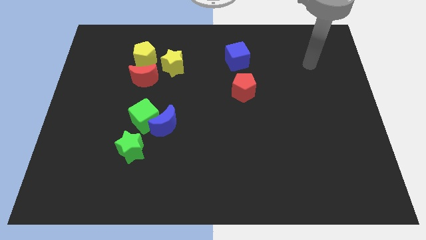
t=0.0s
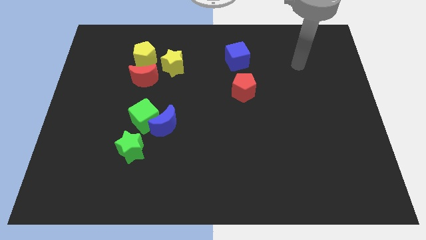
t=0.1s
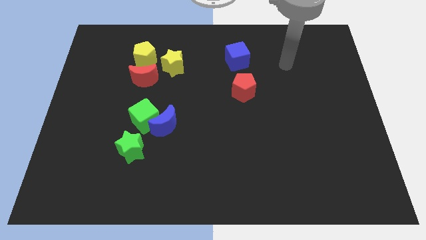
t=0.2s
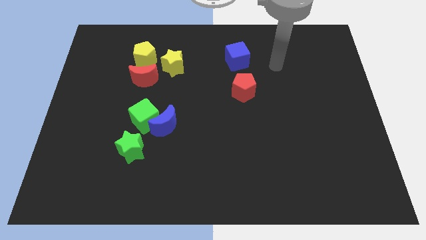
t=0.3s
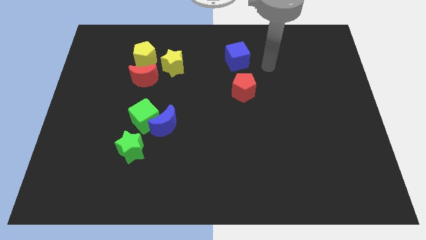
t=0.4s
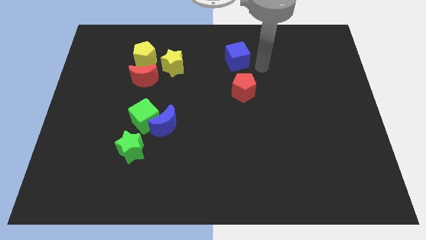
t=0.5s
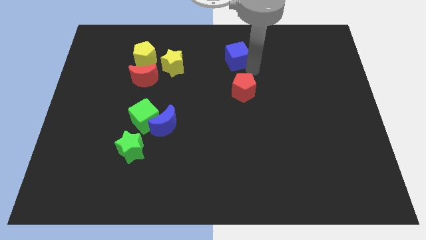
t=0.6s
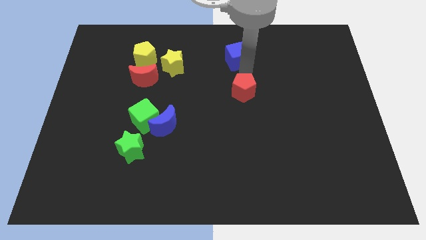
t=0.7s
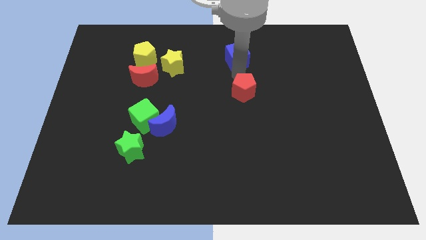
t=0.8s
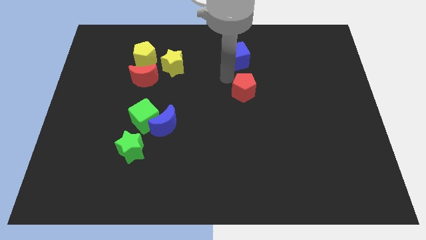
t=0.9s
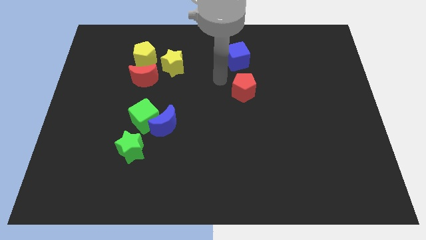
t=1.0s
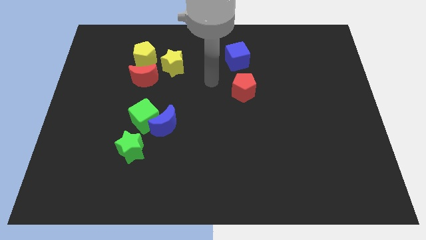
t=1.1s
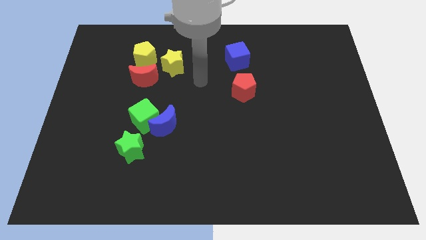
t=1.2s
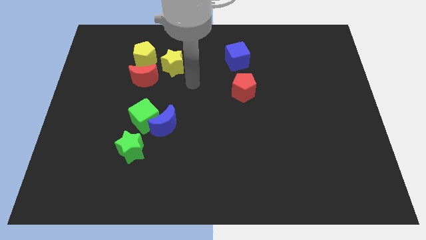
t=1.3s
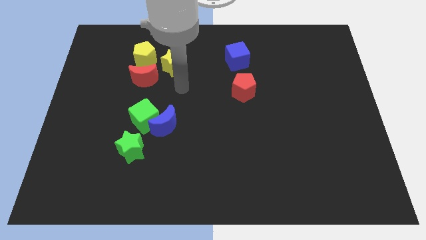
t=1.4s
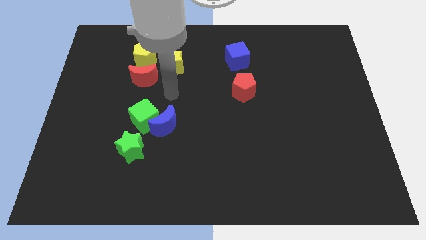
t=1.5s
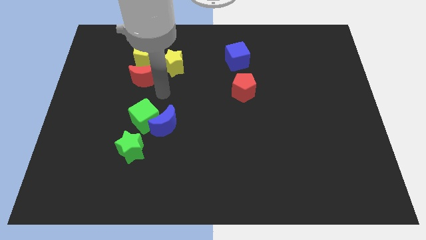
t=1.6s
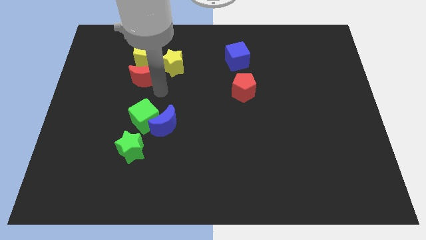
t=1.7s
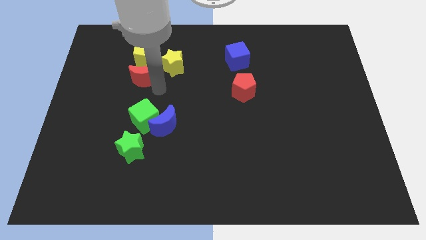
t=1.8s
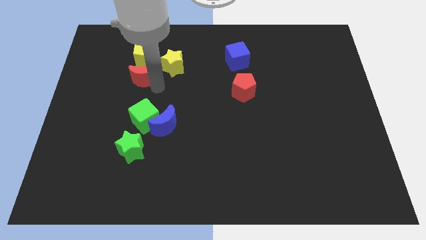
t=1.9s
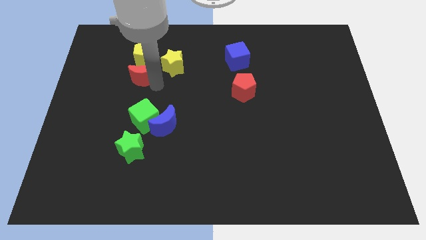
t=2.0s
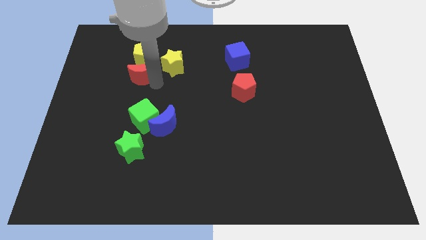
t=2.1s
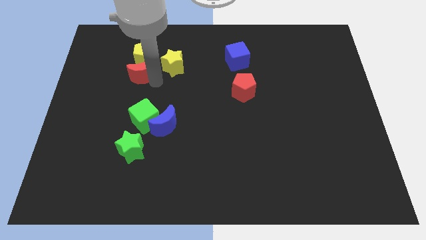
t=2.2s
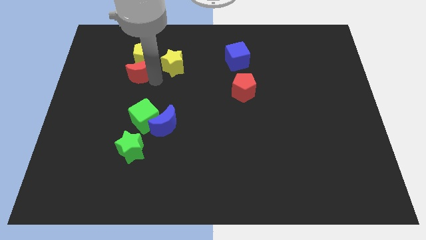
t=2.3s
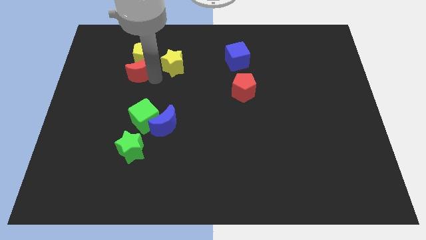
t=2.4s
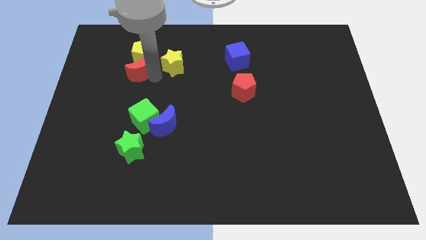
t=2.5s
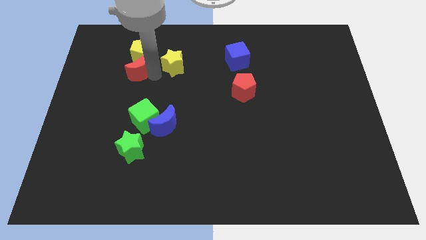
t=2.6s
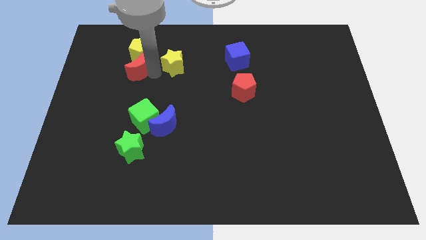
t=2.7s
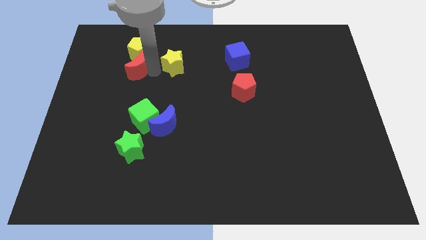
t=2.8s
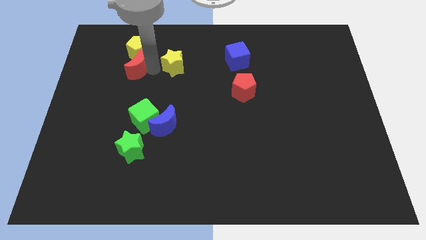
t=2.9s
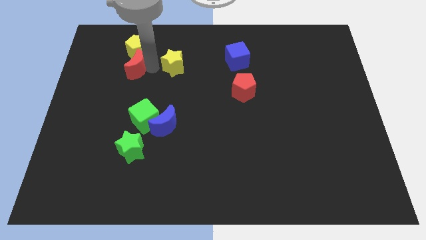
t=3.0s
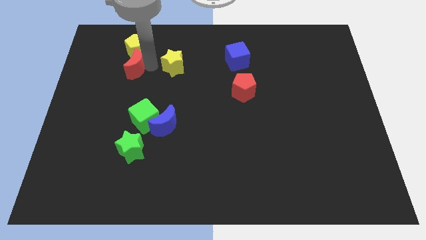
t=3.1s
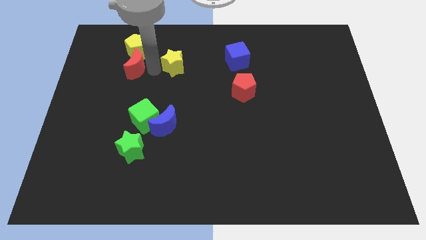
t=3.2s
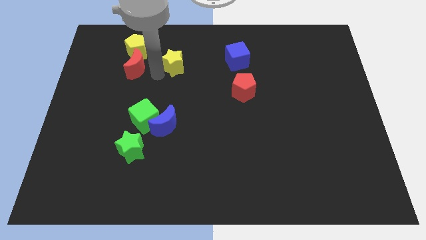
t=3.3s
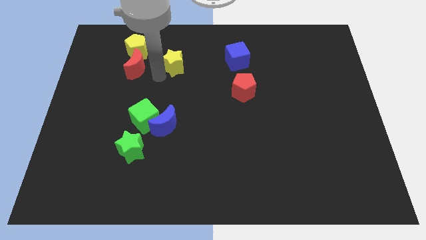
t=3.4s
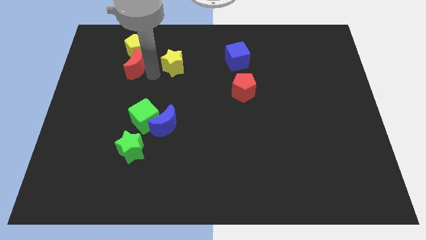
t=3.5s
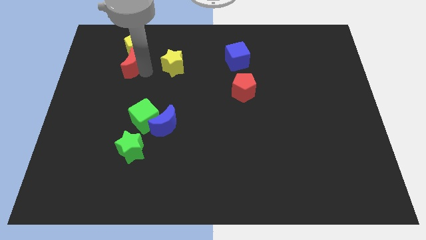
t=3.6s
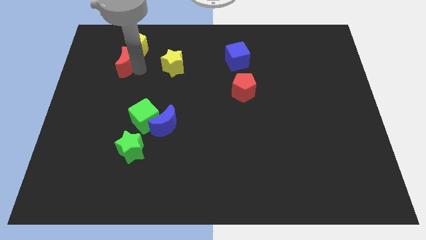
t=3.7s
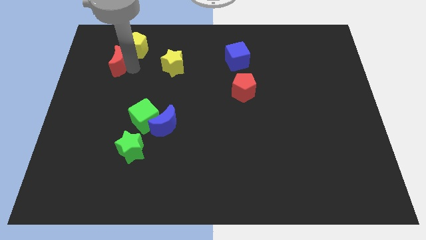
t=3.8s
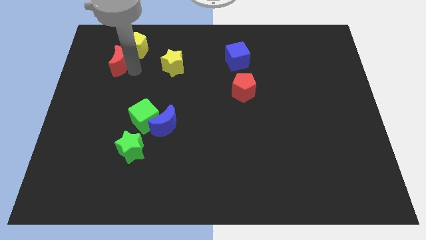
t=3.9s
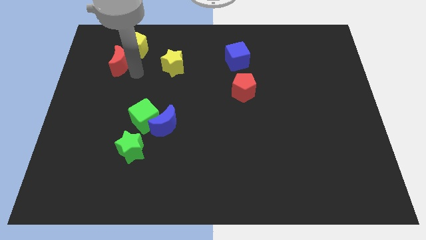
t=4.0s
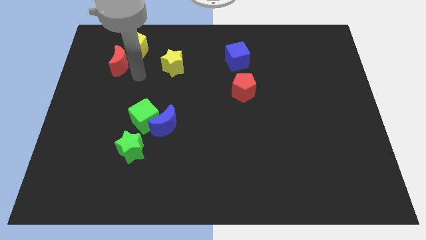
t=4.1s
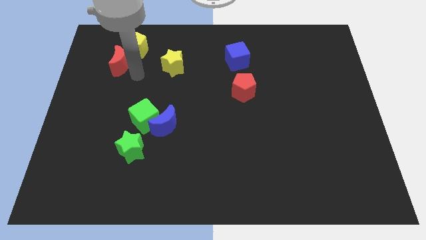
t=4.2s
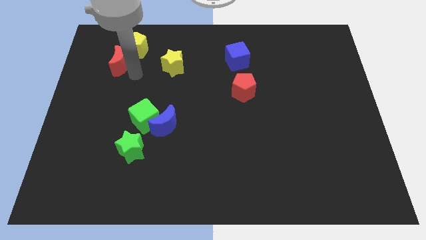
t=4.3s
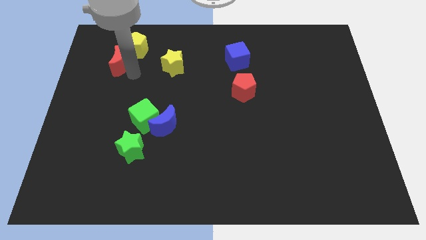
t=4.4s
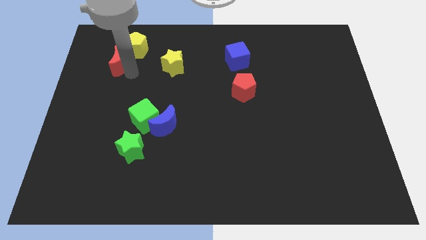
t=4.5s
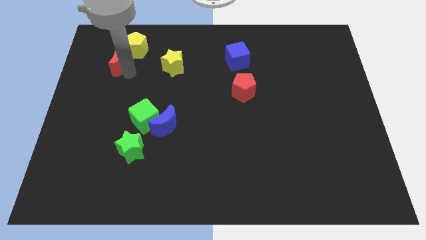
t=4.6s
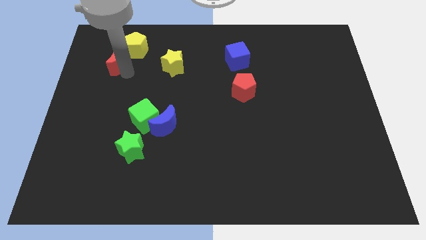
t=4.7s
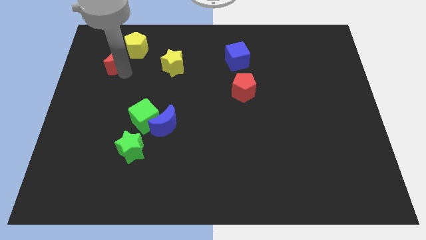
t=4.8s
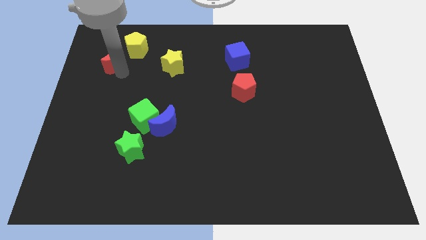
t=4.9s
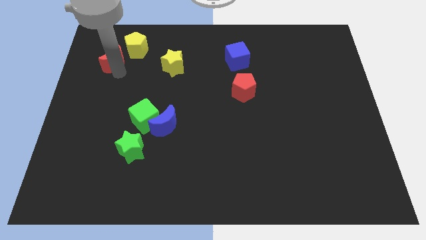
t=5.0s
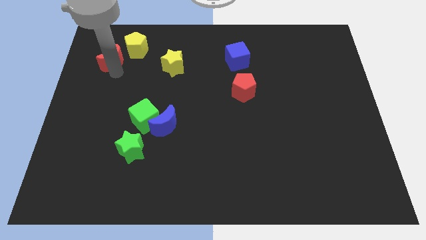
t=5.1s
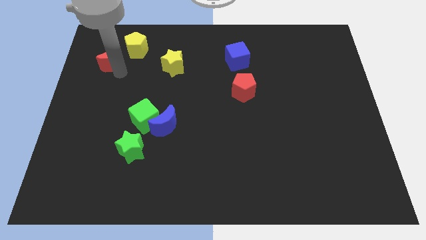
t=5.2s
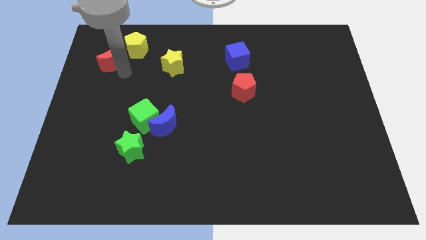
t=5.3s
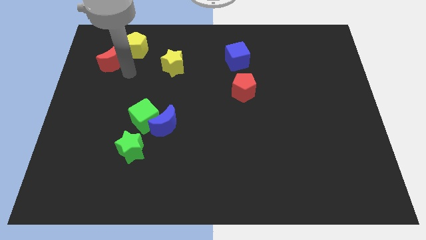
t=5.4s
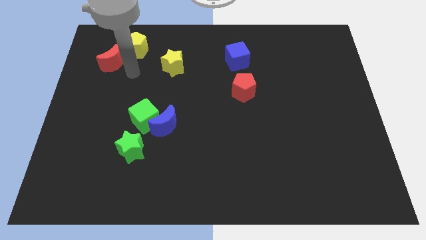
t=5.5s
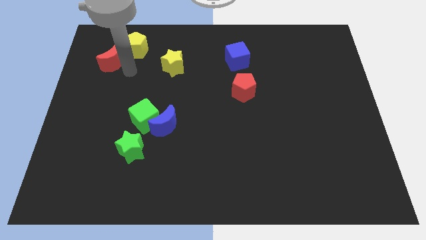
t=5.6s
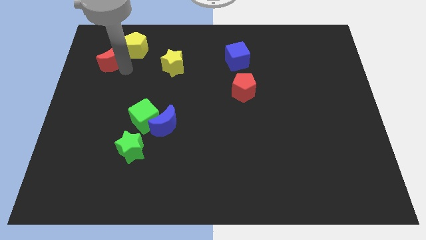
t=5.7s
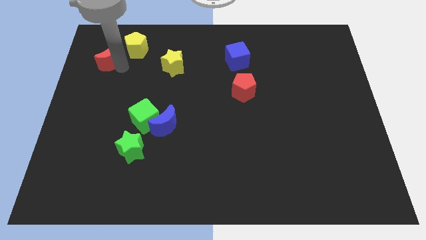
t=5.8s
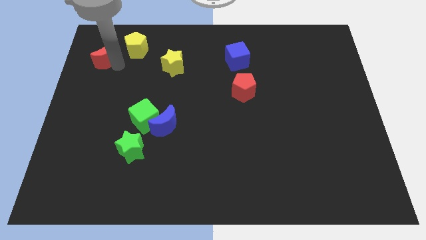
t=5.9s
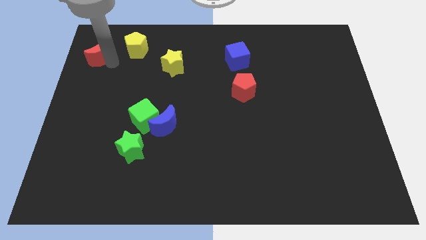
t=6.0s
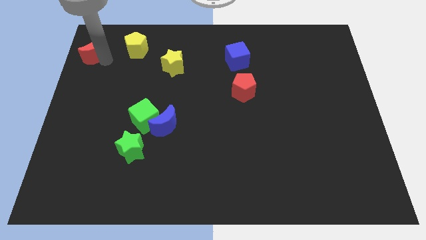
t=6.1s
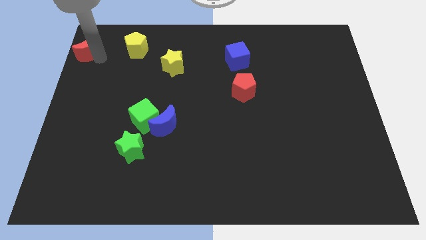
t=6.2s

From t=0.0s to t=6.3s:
put the red moon to the upper left corner

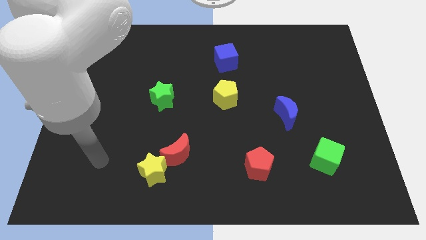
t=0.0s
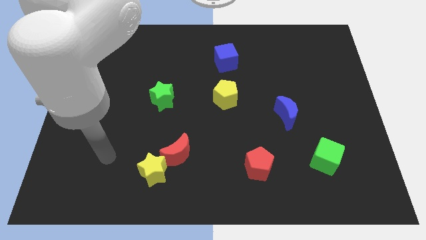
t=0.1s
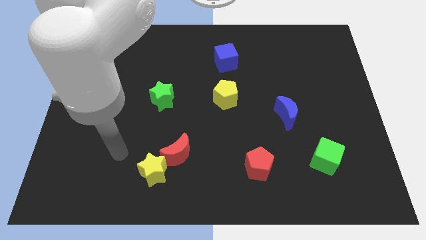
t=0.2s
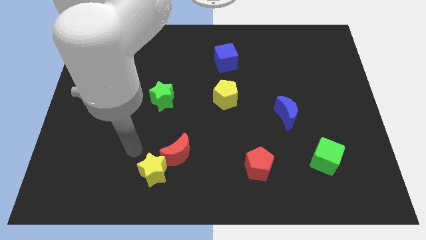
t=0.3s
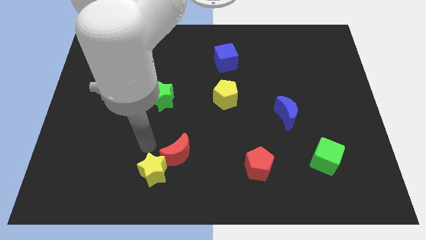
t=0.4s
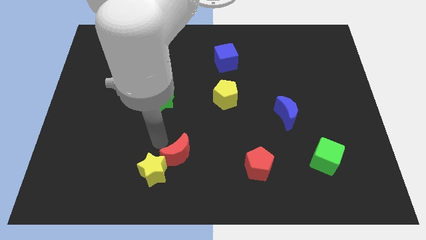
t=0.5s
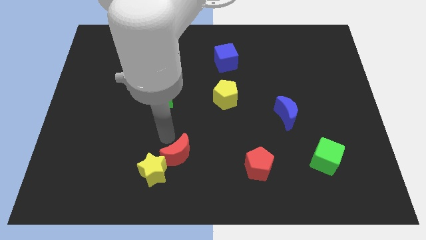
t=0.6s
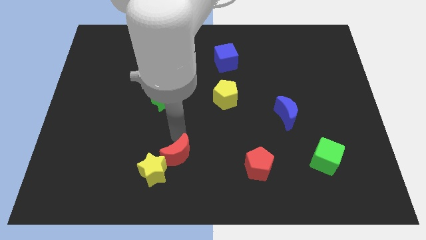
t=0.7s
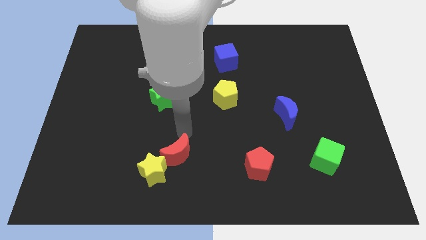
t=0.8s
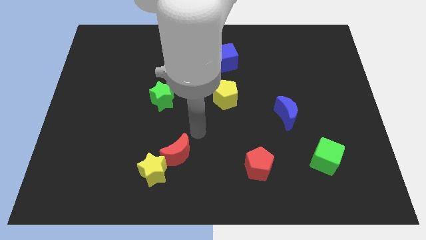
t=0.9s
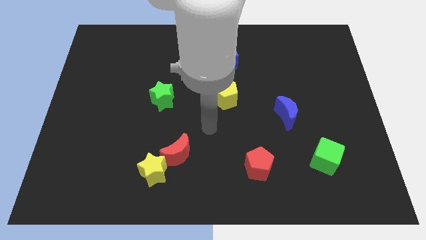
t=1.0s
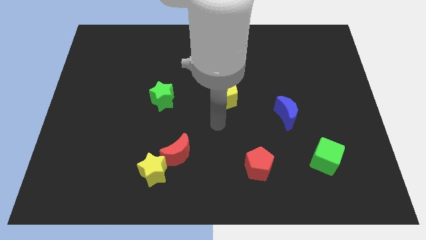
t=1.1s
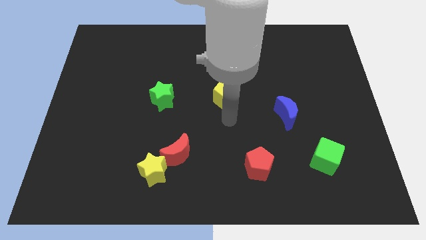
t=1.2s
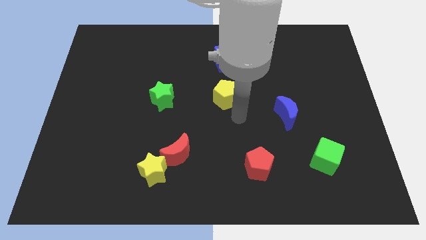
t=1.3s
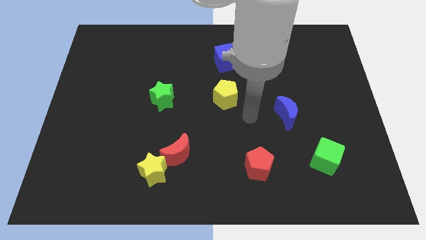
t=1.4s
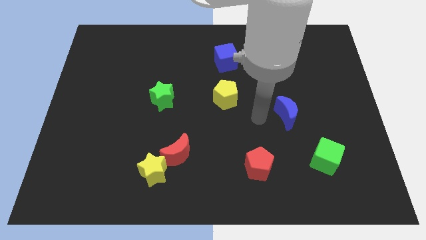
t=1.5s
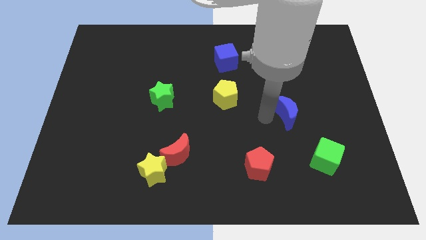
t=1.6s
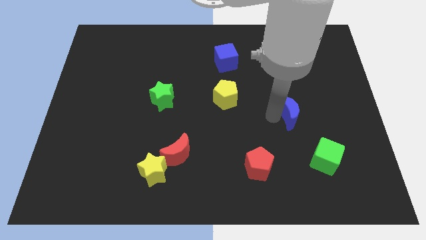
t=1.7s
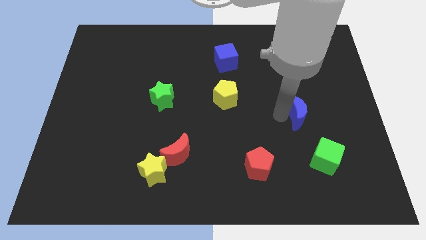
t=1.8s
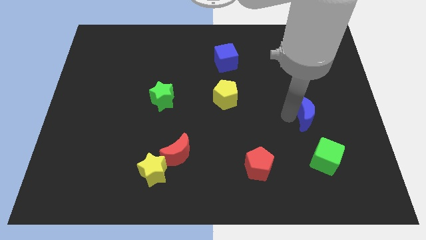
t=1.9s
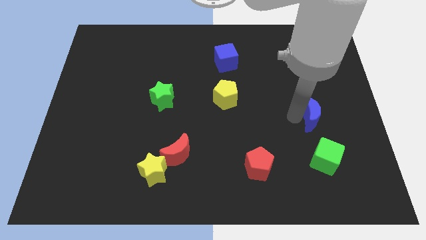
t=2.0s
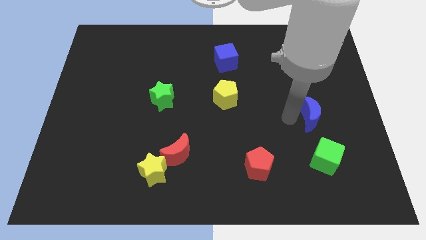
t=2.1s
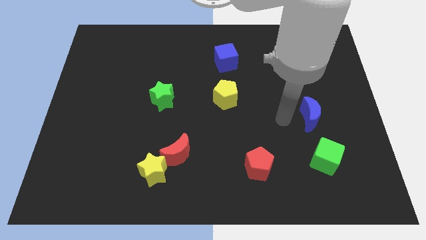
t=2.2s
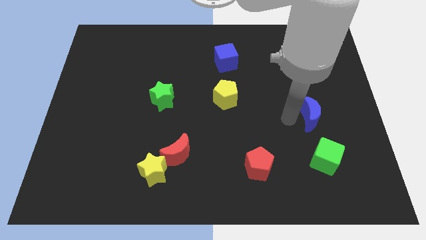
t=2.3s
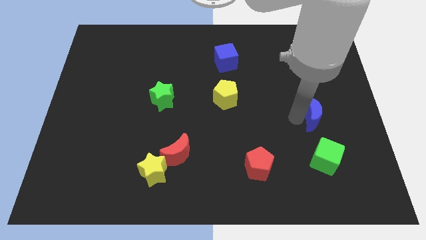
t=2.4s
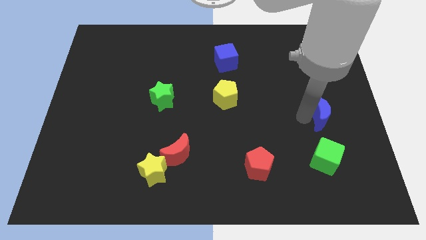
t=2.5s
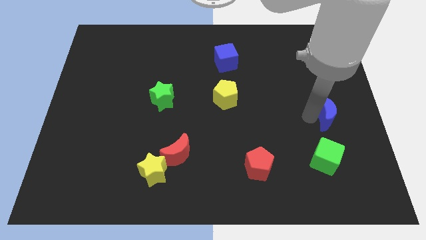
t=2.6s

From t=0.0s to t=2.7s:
move the blue moon to the center right
